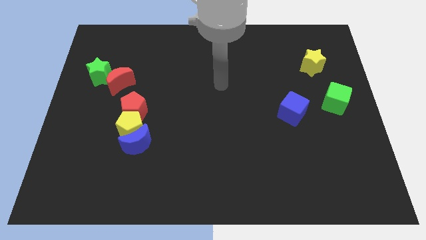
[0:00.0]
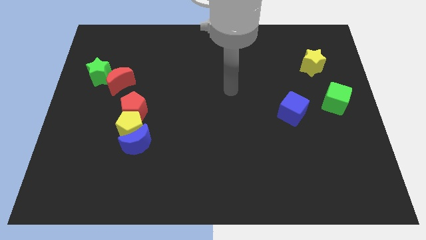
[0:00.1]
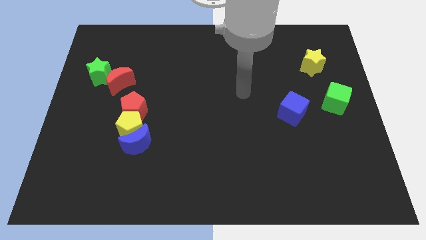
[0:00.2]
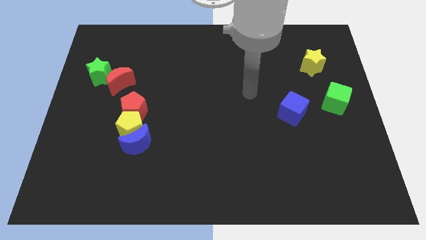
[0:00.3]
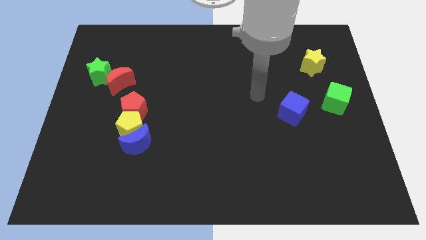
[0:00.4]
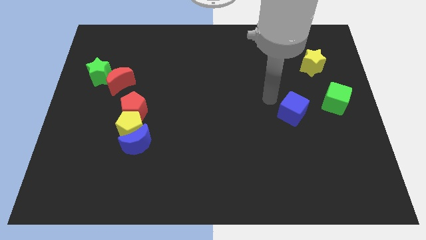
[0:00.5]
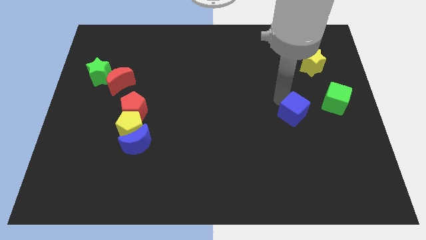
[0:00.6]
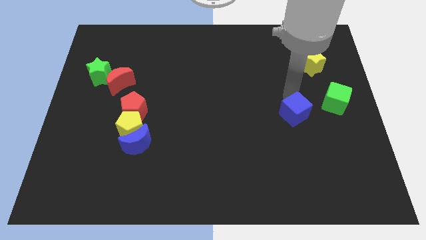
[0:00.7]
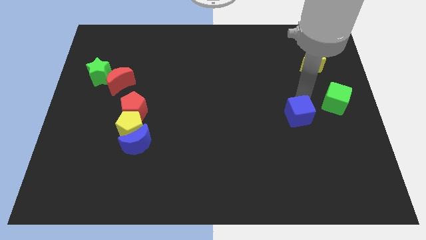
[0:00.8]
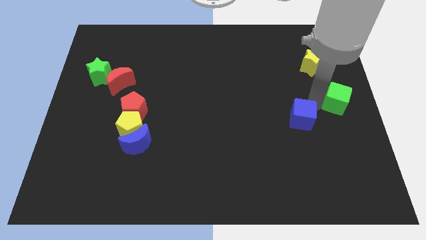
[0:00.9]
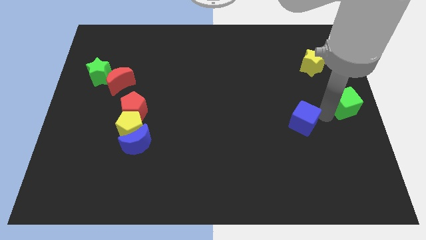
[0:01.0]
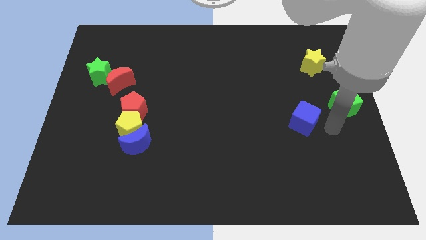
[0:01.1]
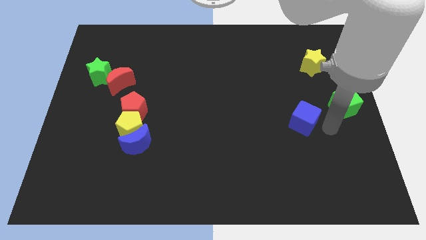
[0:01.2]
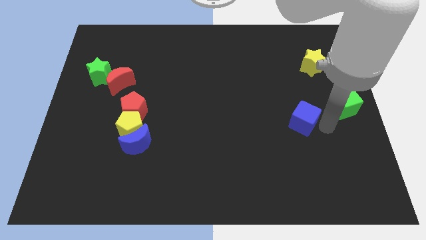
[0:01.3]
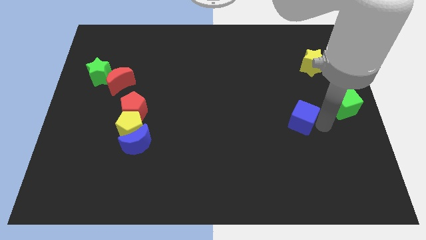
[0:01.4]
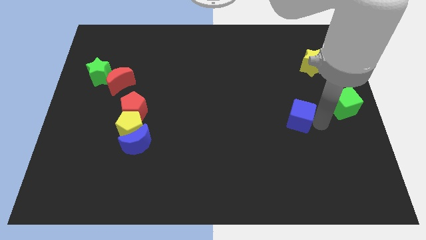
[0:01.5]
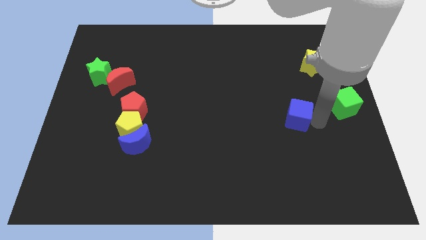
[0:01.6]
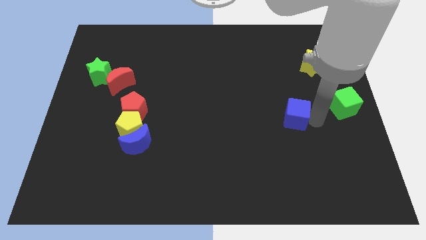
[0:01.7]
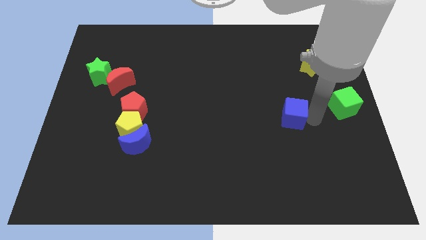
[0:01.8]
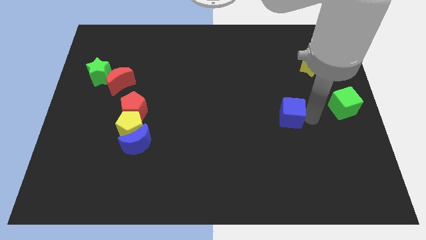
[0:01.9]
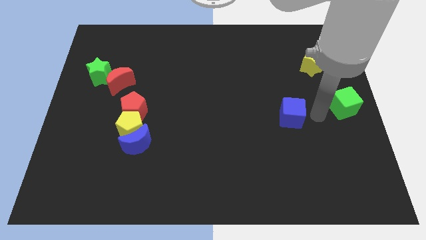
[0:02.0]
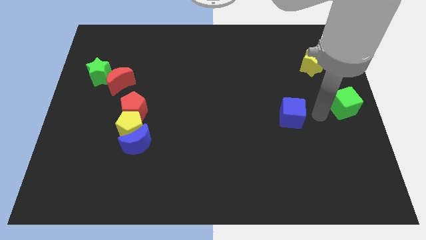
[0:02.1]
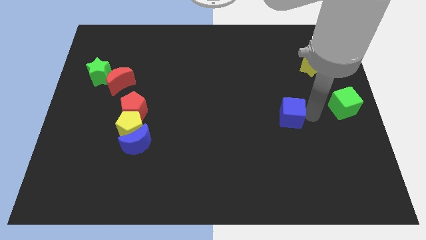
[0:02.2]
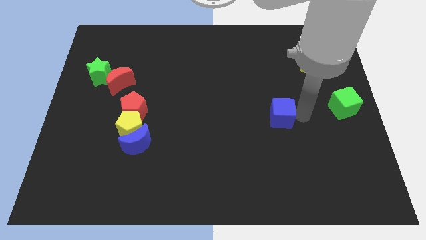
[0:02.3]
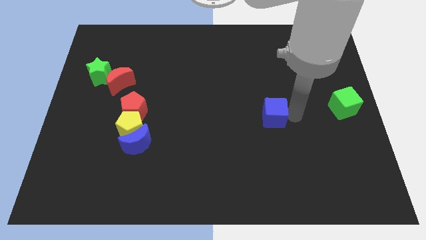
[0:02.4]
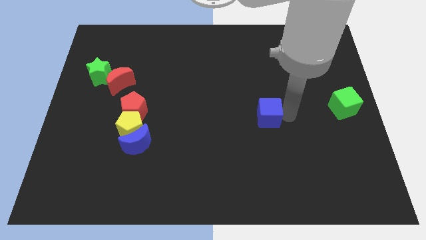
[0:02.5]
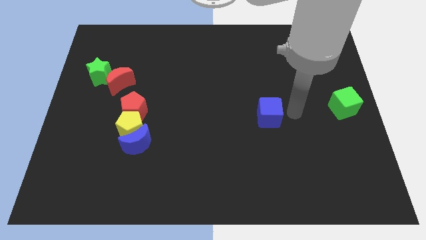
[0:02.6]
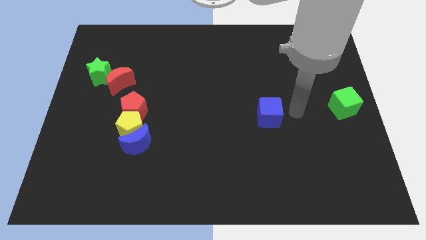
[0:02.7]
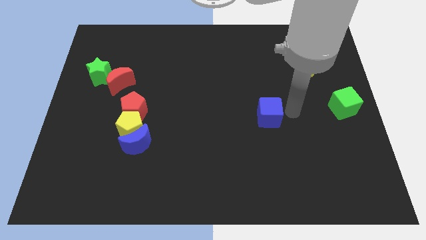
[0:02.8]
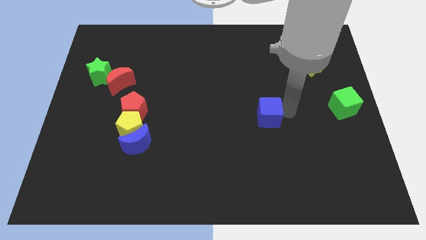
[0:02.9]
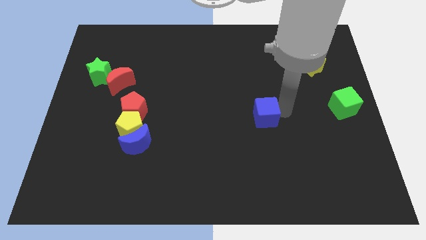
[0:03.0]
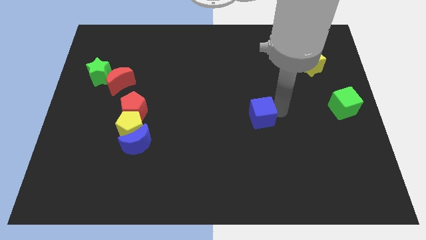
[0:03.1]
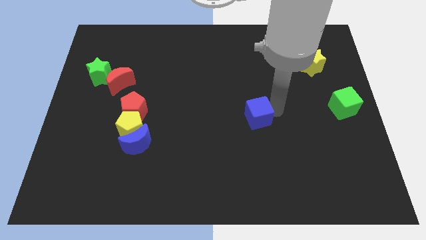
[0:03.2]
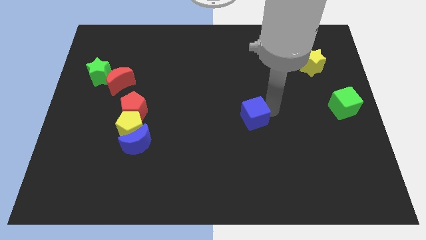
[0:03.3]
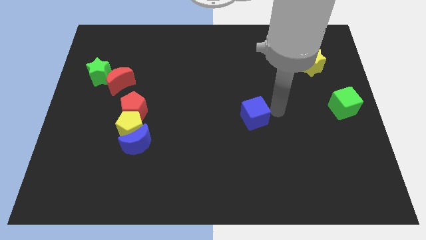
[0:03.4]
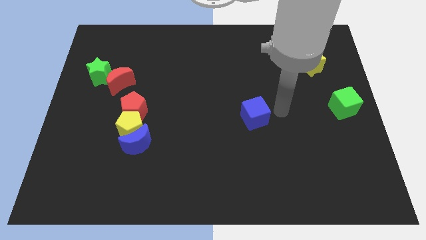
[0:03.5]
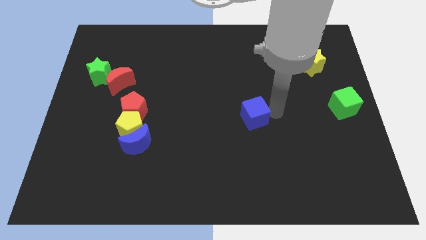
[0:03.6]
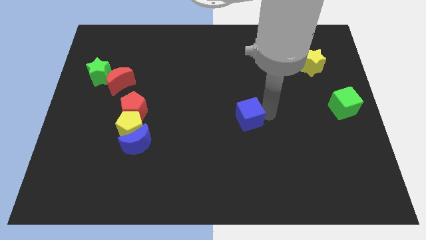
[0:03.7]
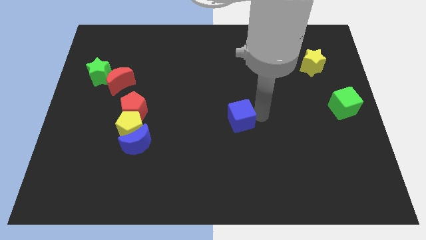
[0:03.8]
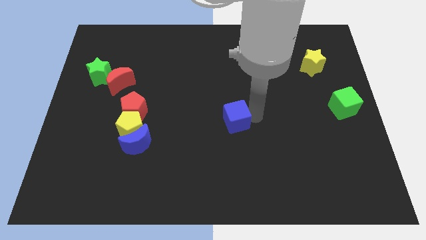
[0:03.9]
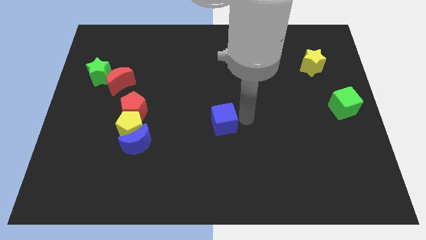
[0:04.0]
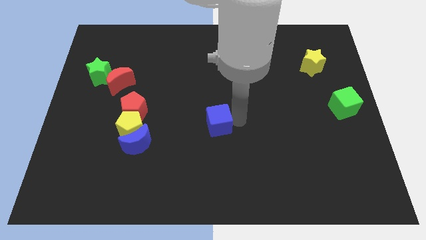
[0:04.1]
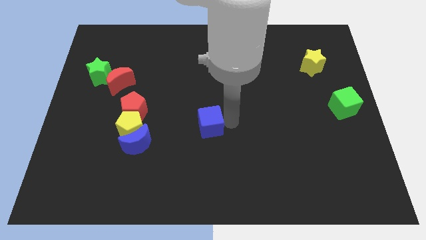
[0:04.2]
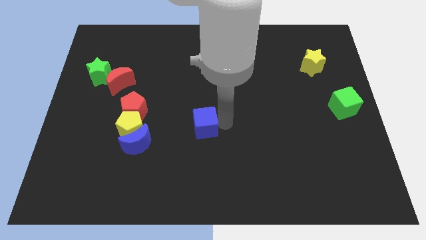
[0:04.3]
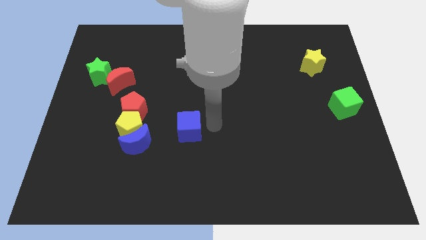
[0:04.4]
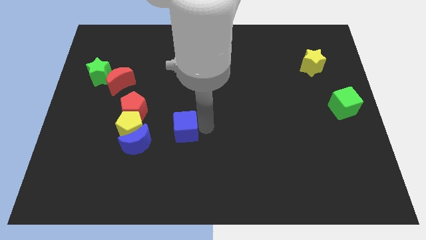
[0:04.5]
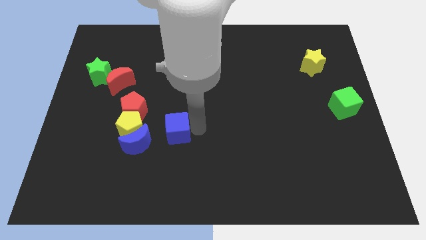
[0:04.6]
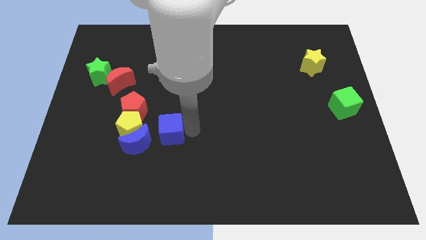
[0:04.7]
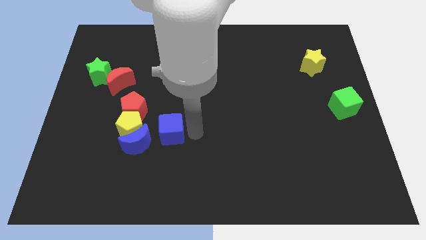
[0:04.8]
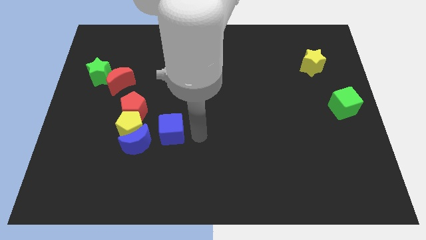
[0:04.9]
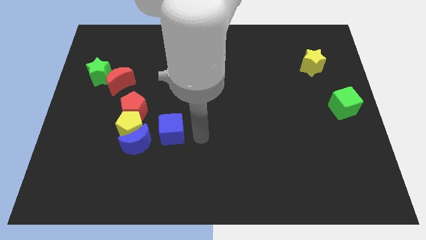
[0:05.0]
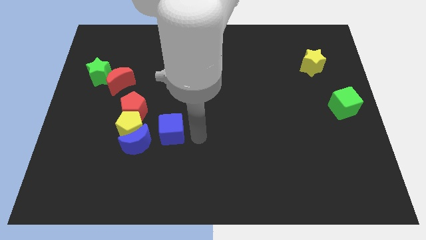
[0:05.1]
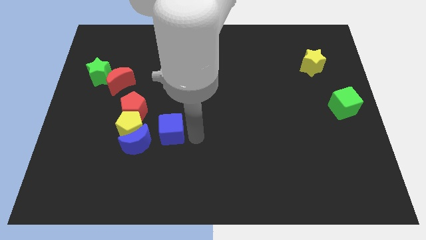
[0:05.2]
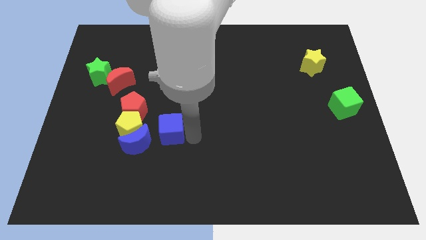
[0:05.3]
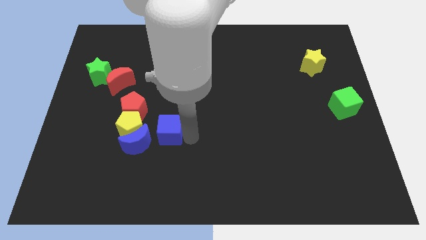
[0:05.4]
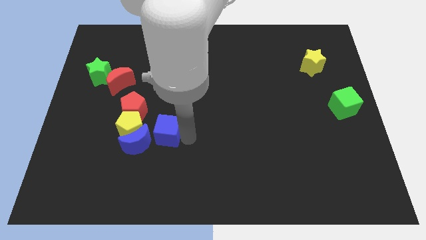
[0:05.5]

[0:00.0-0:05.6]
move the blue cube to the bottom right side of the yellow pentagon
